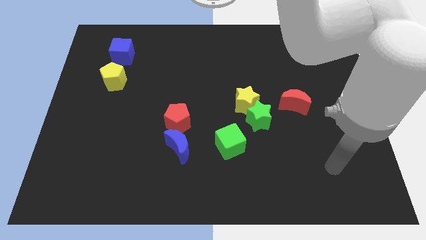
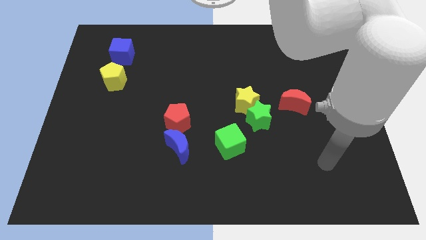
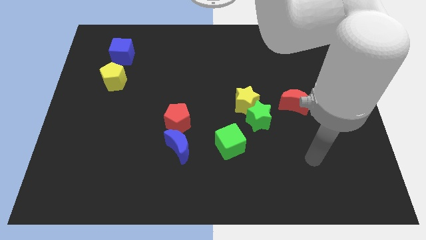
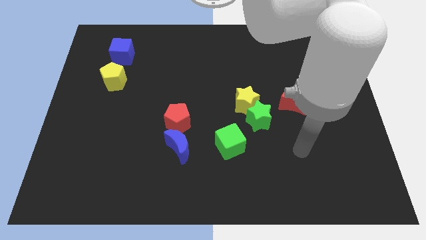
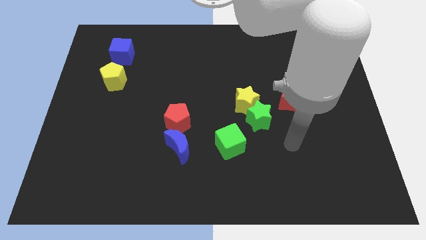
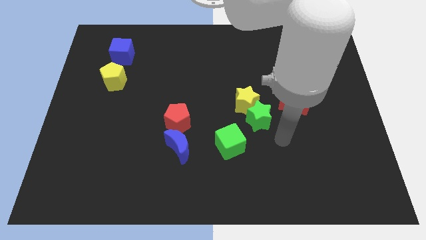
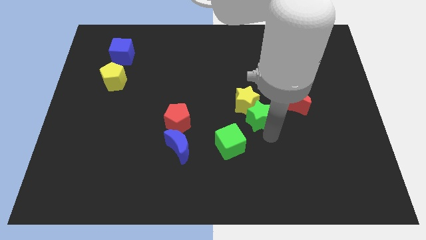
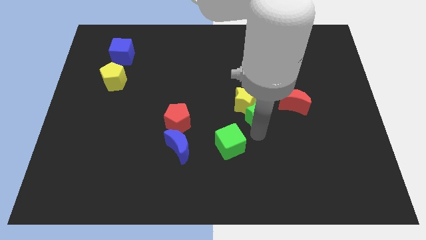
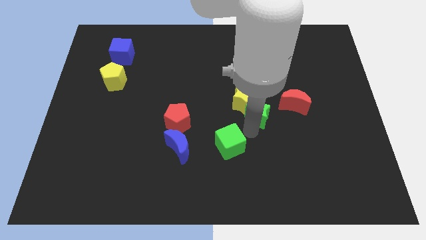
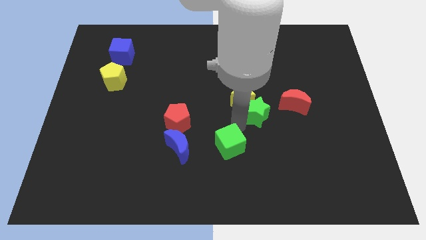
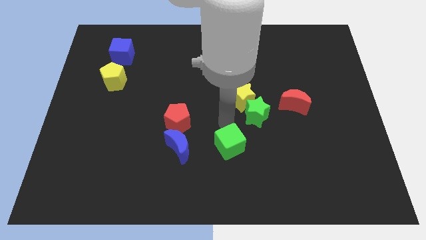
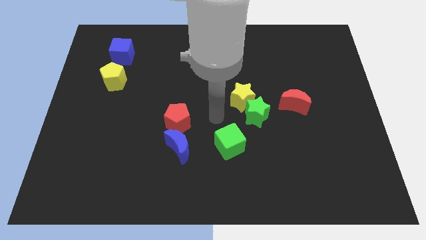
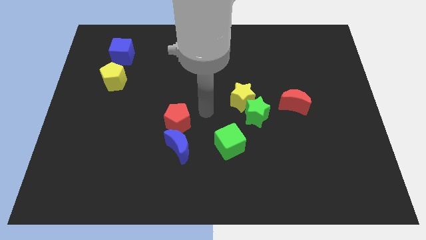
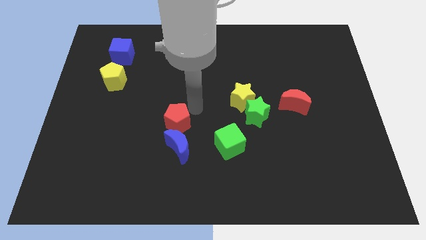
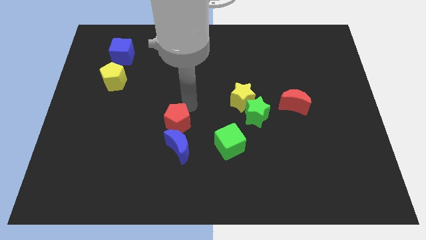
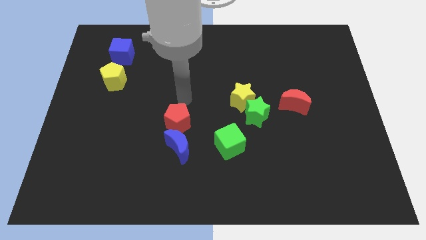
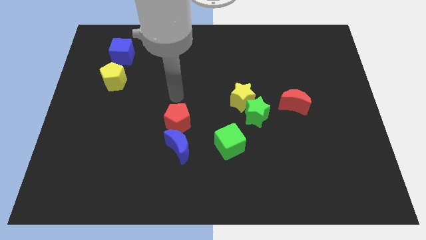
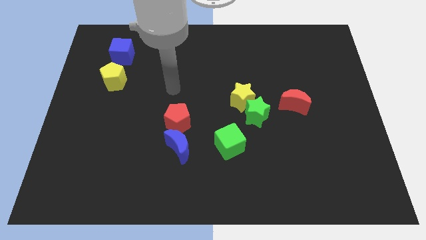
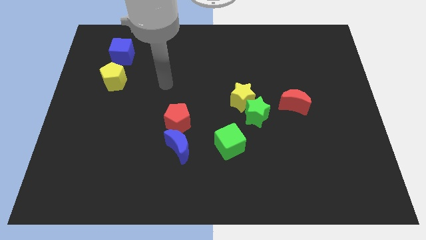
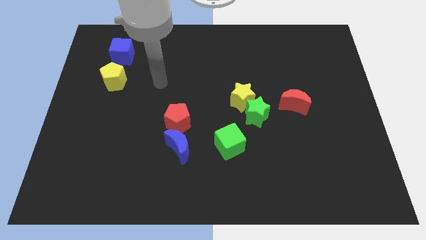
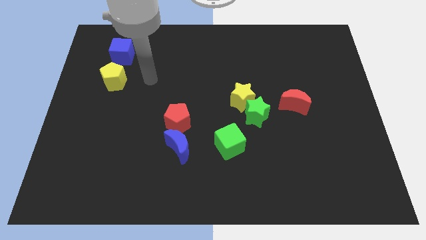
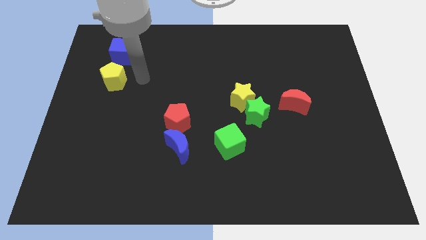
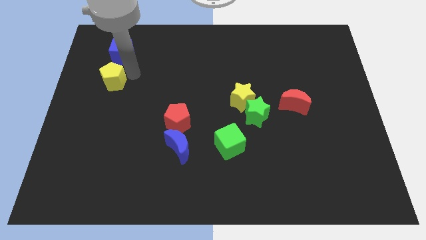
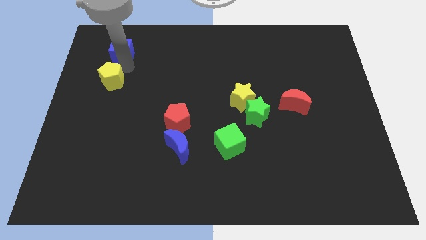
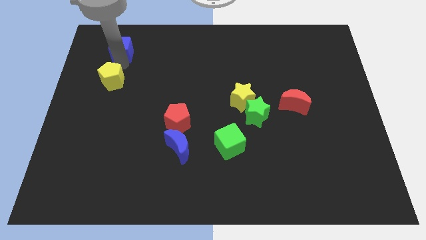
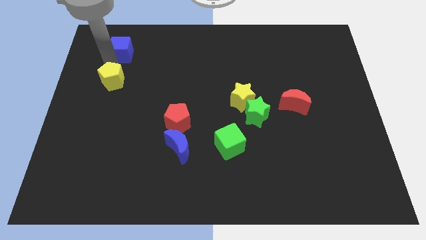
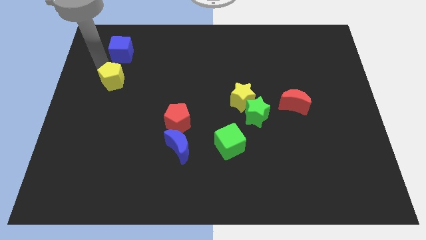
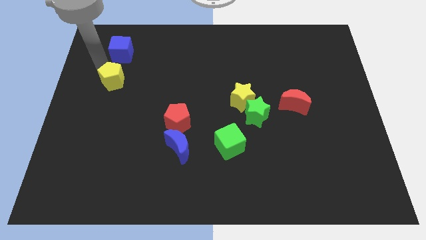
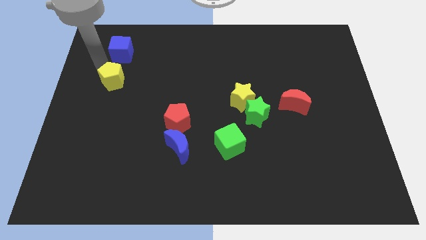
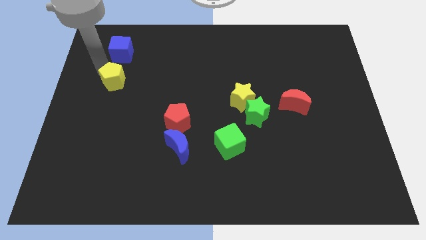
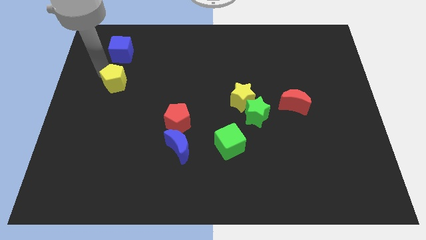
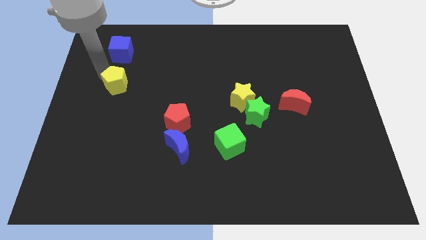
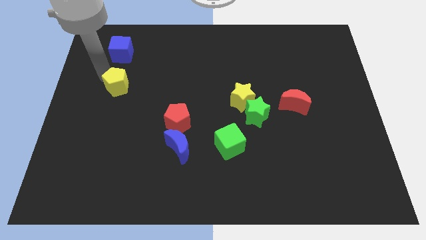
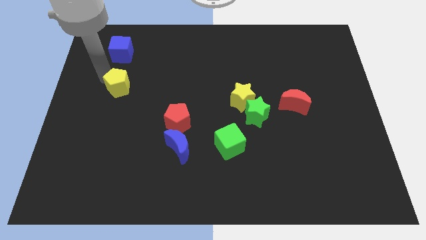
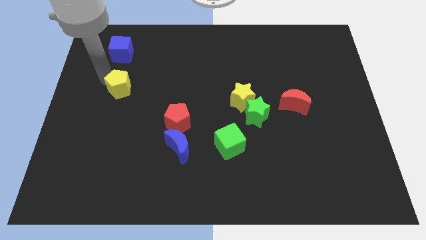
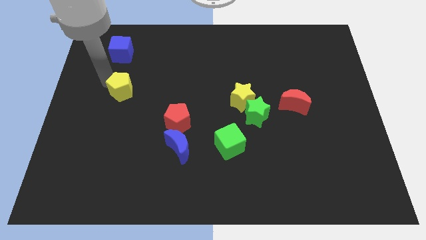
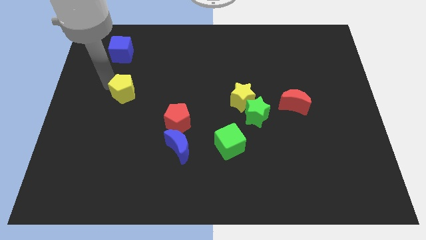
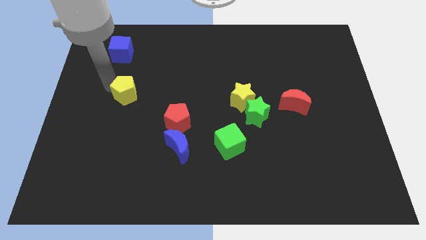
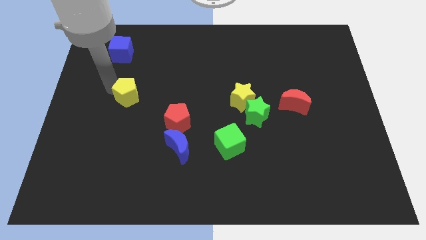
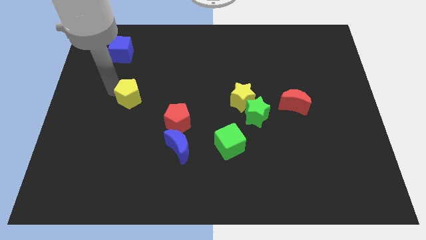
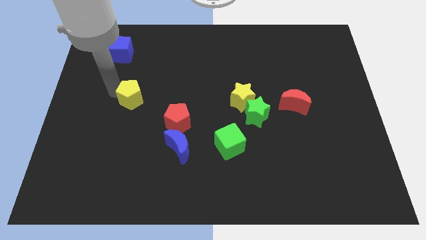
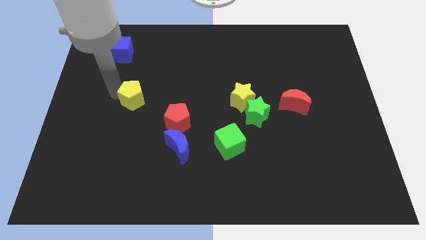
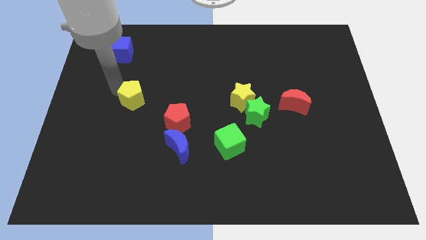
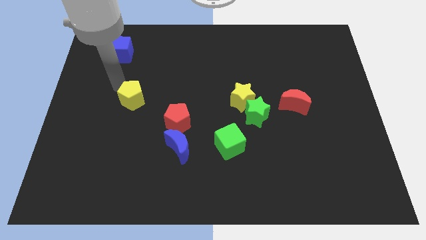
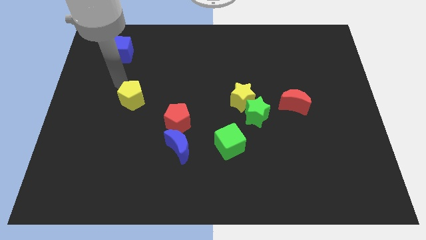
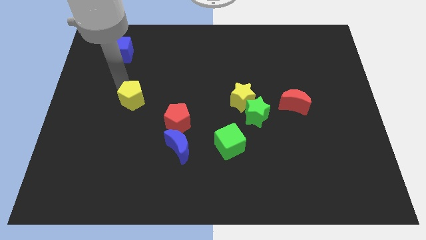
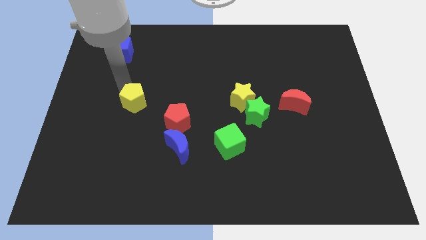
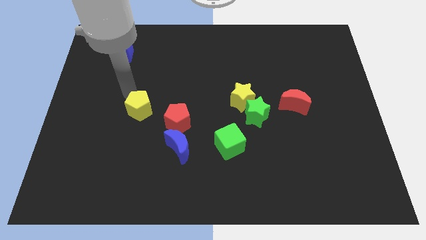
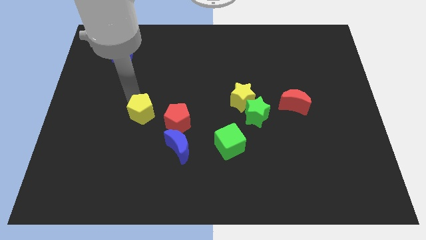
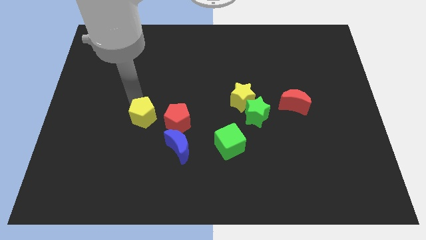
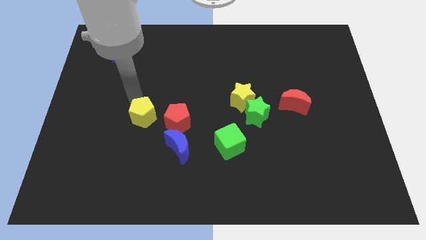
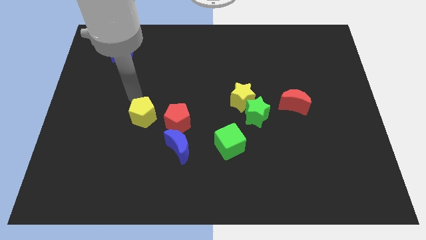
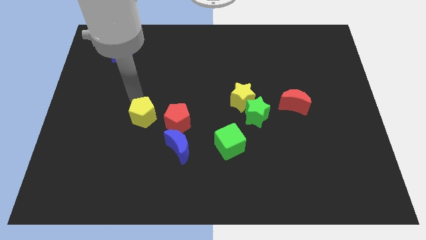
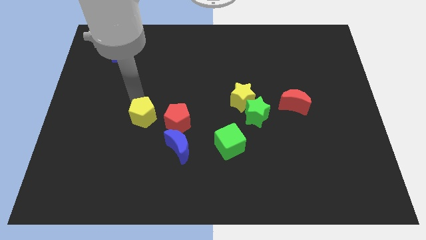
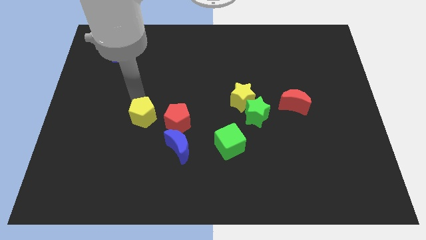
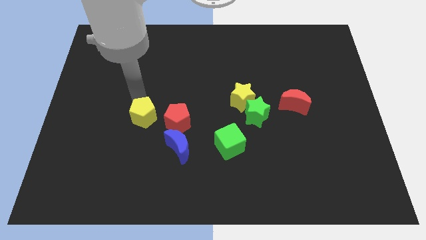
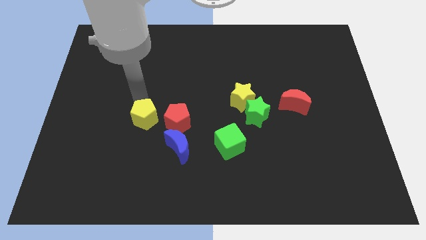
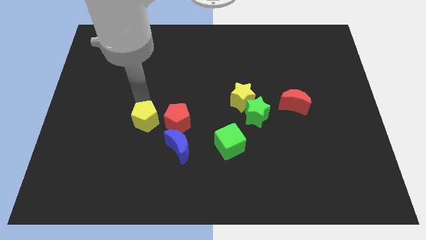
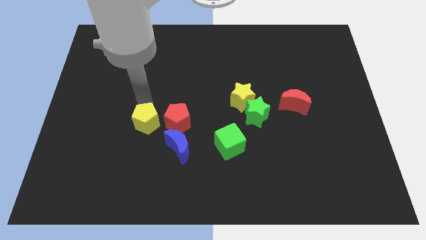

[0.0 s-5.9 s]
move the yellow pentagon to the bottom left side of the red pentagon

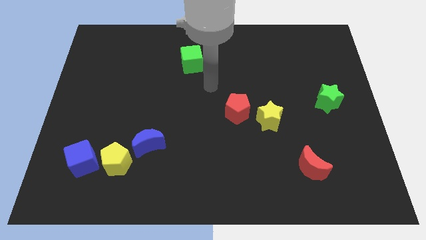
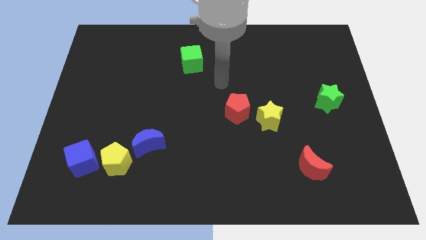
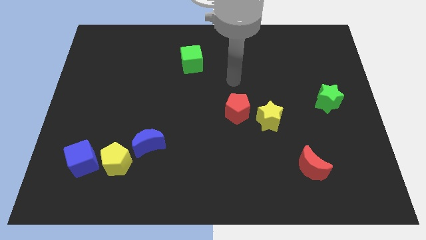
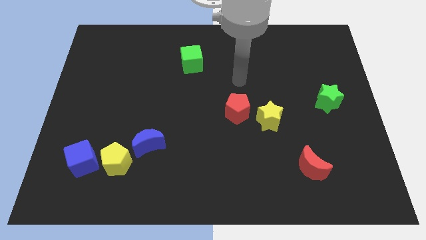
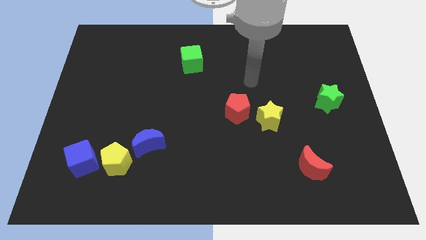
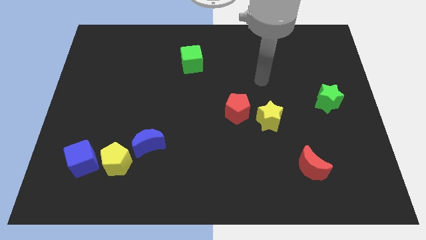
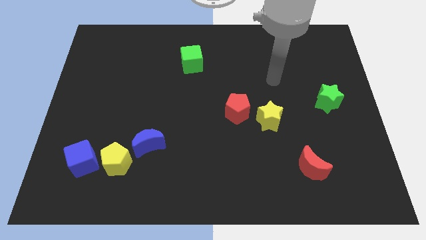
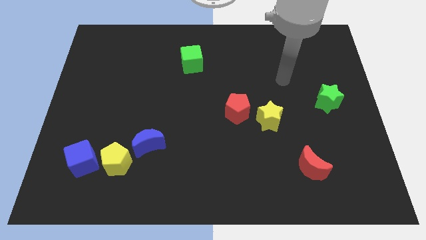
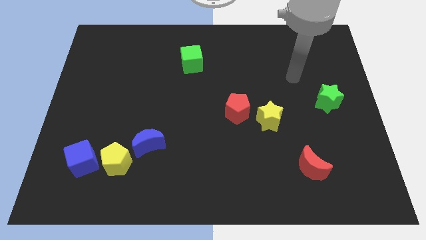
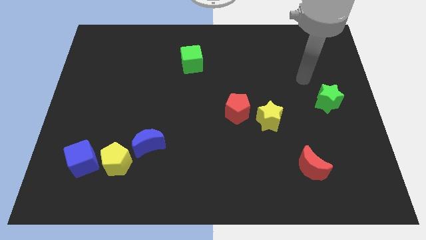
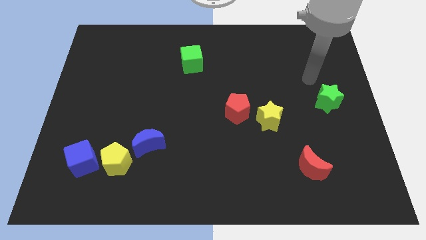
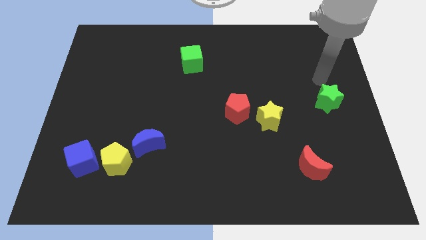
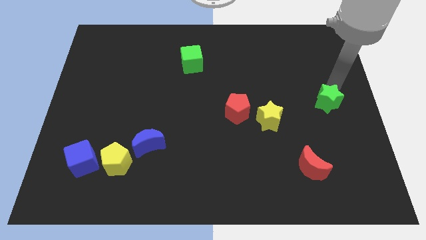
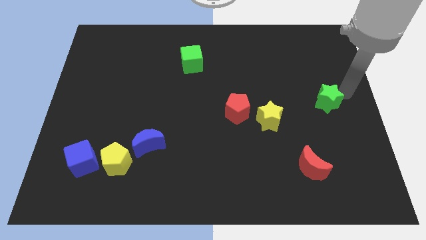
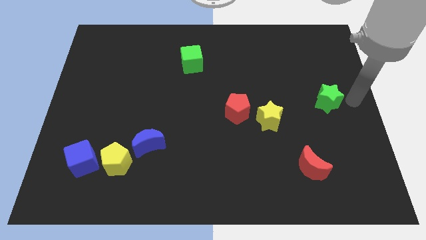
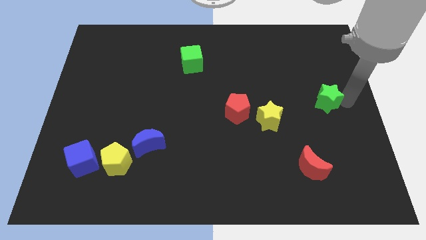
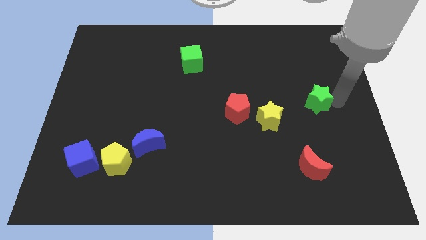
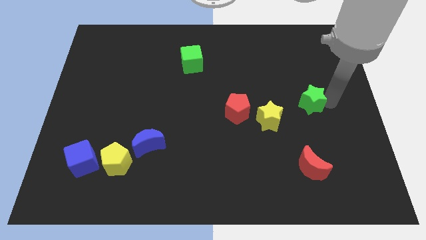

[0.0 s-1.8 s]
slide the green star to the top right of the yellow star
